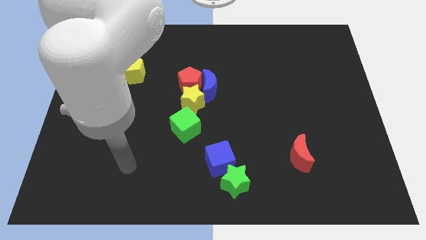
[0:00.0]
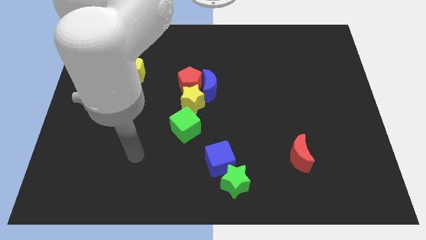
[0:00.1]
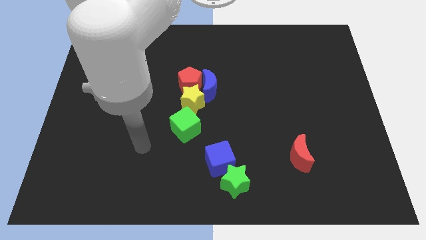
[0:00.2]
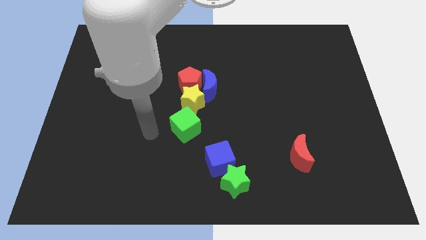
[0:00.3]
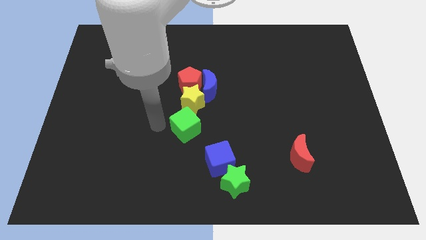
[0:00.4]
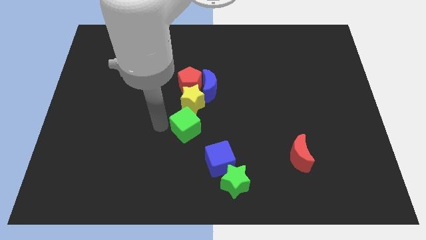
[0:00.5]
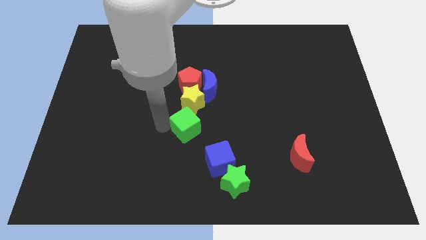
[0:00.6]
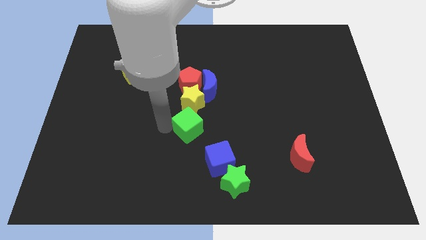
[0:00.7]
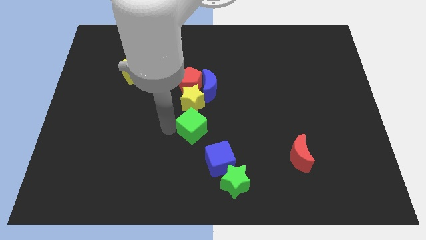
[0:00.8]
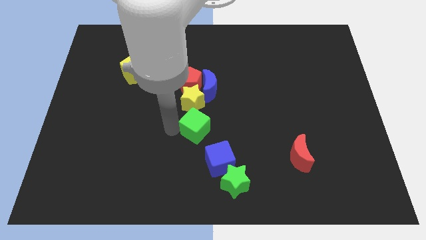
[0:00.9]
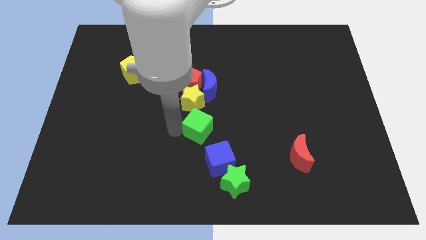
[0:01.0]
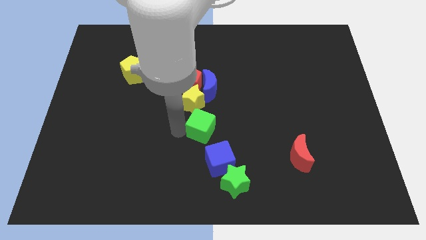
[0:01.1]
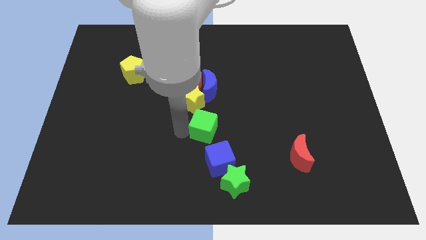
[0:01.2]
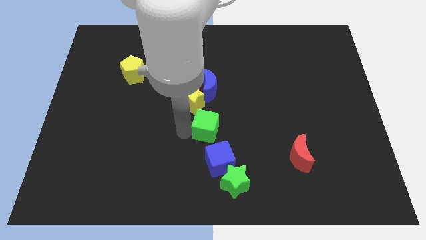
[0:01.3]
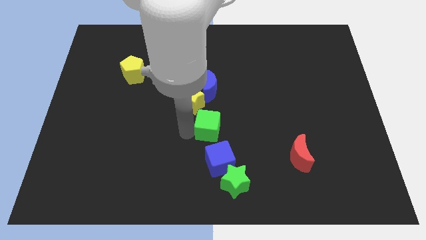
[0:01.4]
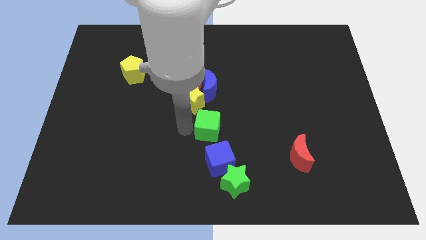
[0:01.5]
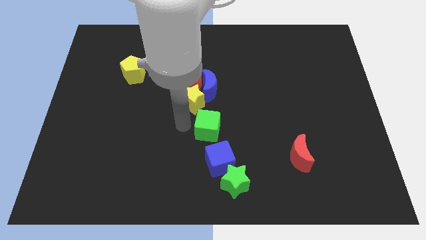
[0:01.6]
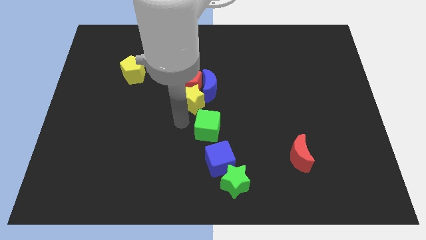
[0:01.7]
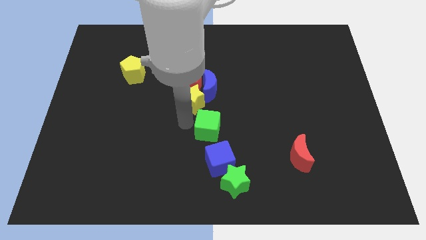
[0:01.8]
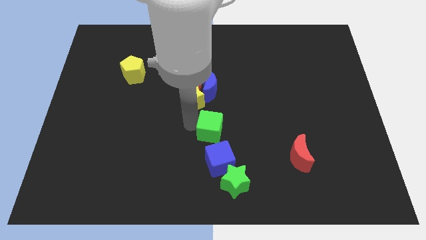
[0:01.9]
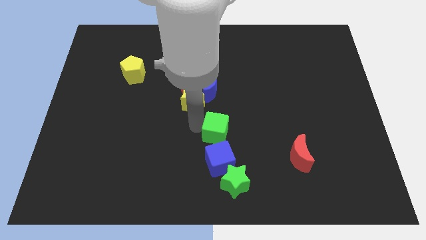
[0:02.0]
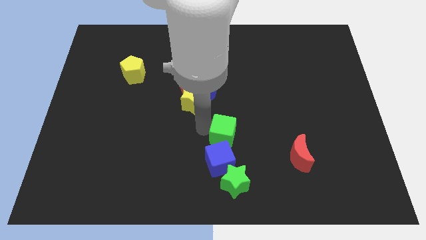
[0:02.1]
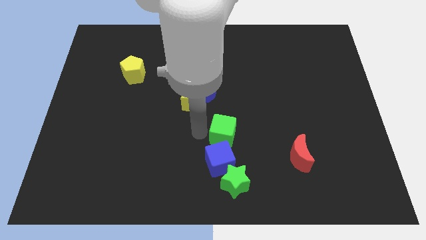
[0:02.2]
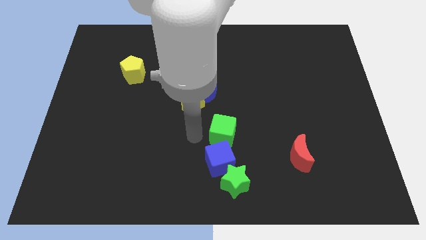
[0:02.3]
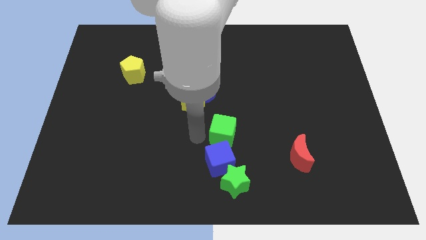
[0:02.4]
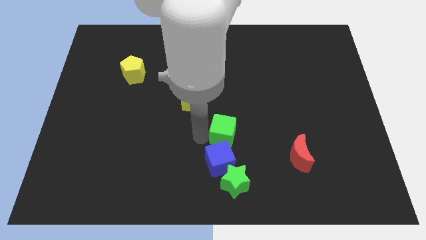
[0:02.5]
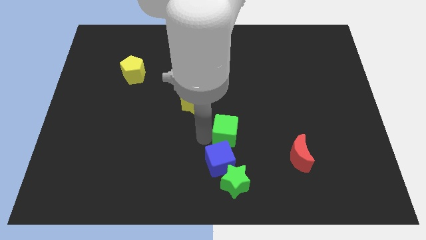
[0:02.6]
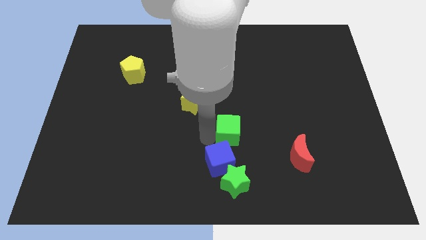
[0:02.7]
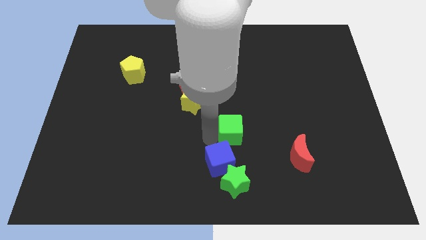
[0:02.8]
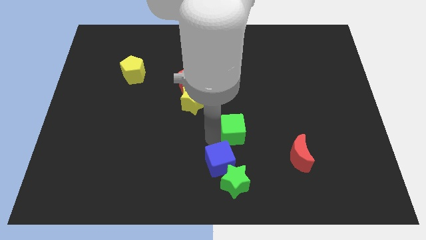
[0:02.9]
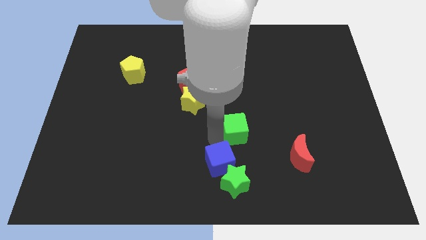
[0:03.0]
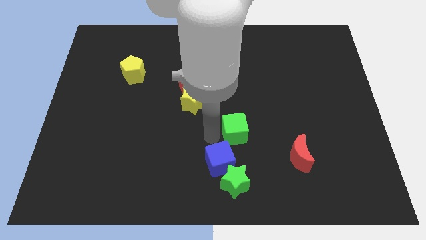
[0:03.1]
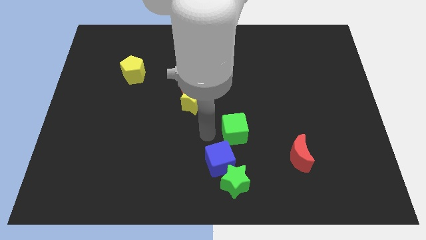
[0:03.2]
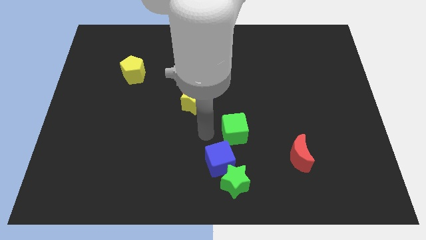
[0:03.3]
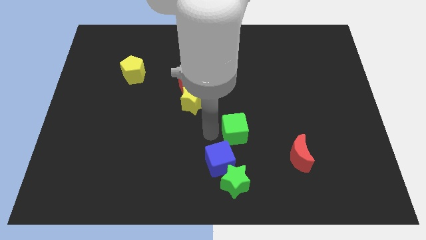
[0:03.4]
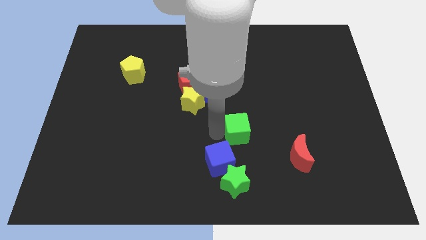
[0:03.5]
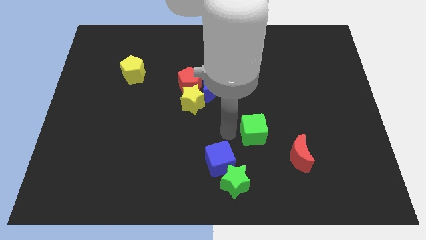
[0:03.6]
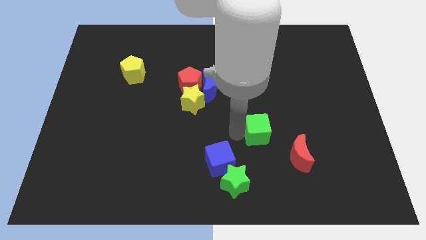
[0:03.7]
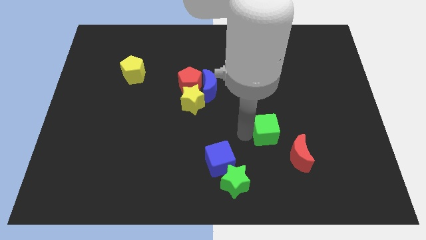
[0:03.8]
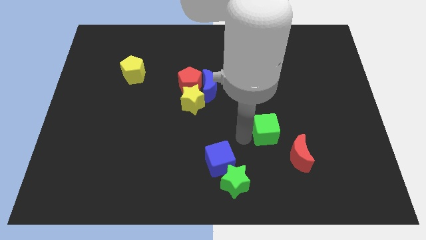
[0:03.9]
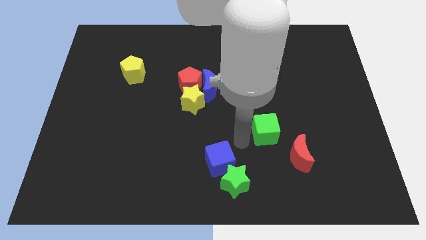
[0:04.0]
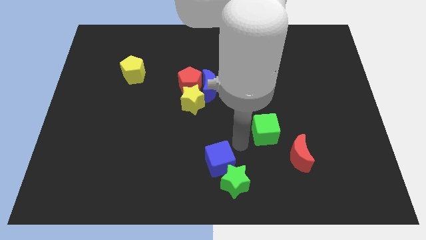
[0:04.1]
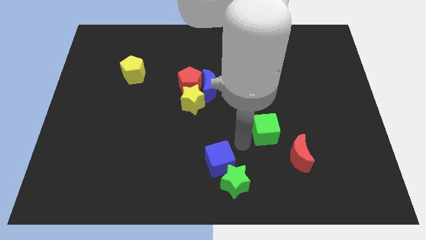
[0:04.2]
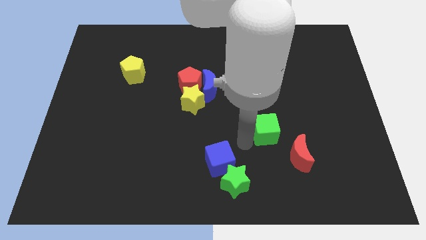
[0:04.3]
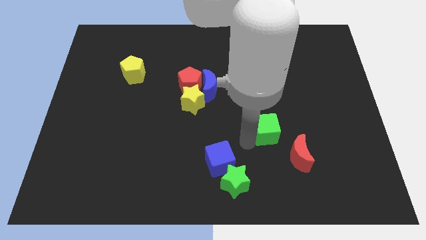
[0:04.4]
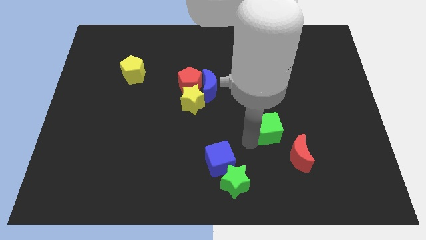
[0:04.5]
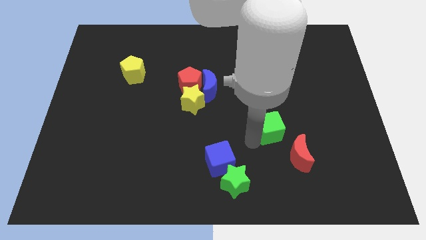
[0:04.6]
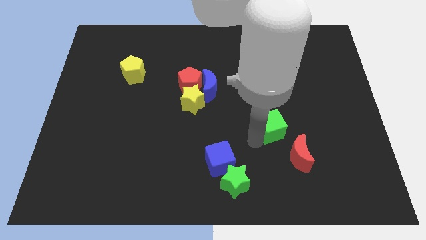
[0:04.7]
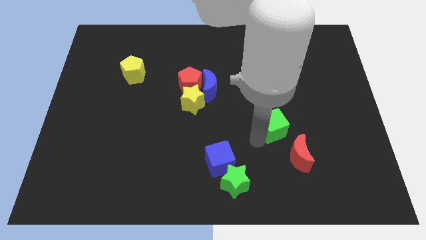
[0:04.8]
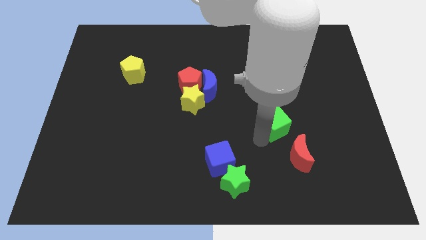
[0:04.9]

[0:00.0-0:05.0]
push the green cube to the right

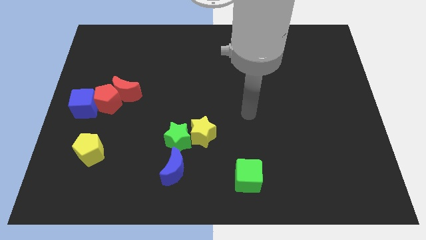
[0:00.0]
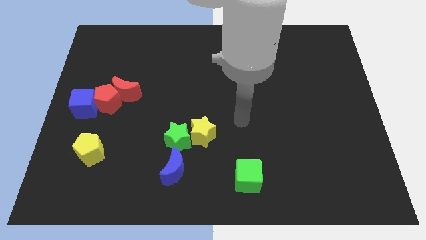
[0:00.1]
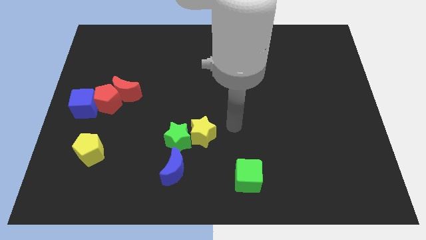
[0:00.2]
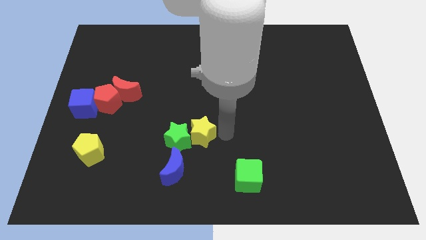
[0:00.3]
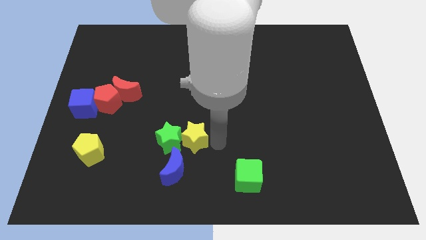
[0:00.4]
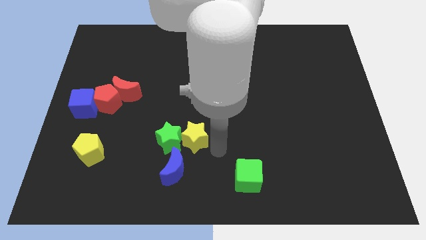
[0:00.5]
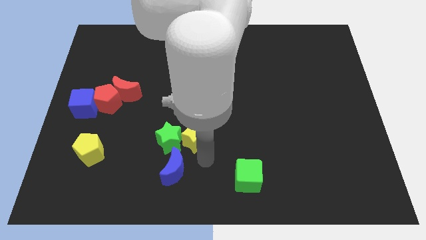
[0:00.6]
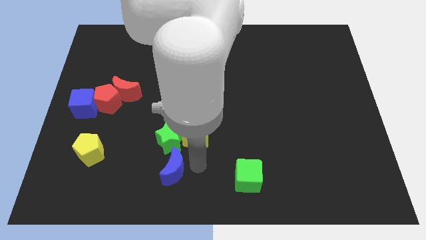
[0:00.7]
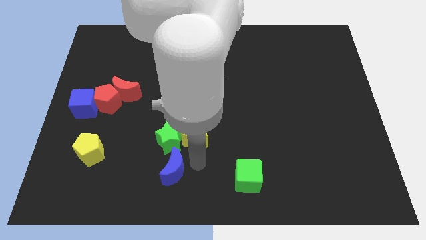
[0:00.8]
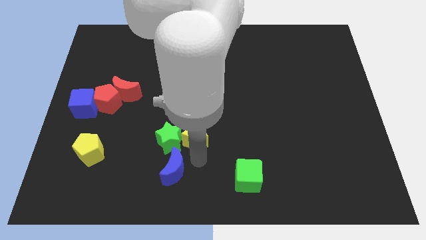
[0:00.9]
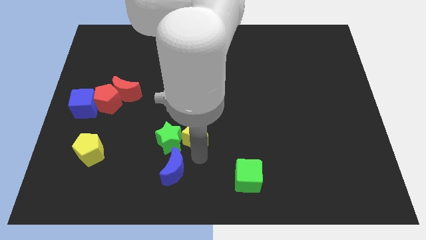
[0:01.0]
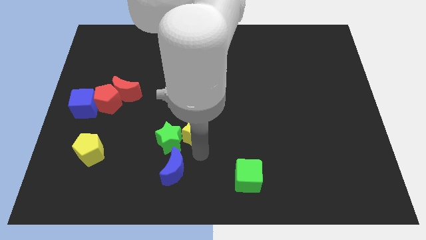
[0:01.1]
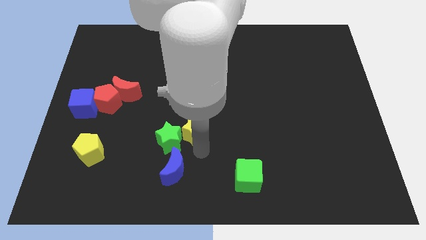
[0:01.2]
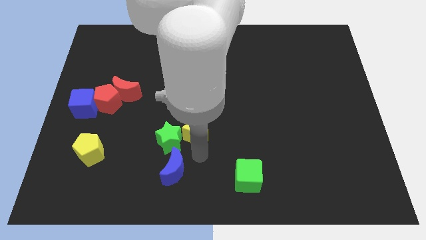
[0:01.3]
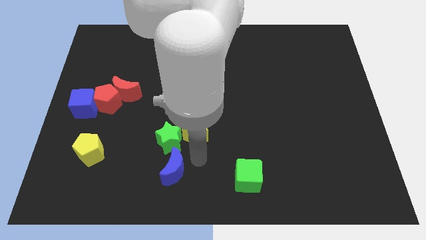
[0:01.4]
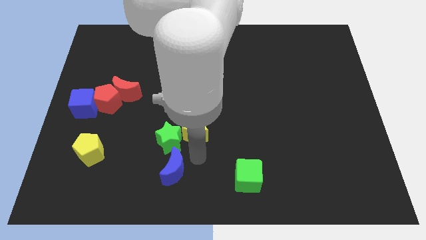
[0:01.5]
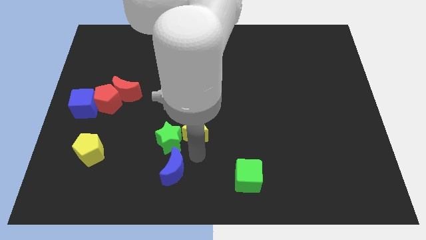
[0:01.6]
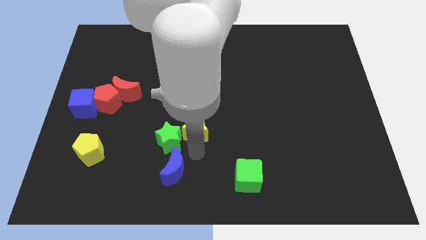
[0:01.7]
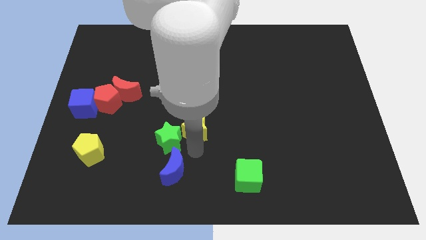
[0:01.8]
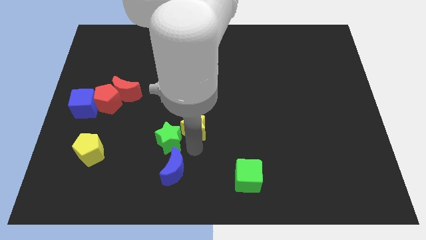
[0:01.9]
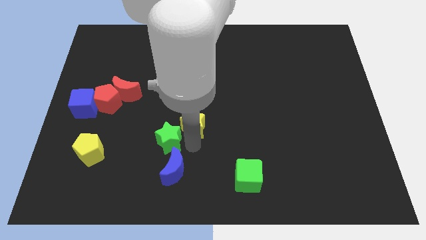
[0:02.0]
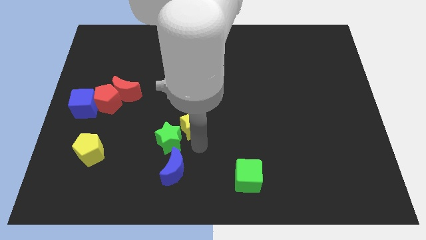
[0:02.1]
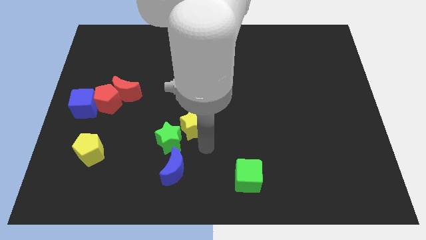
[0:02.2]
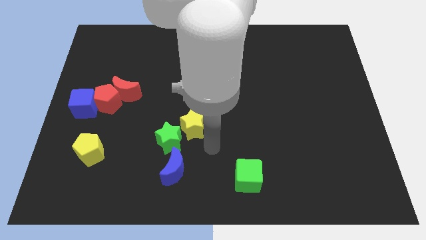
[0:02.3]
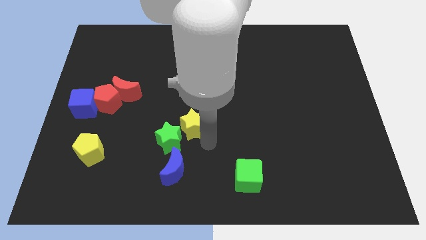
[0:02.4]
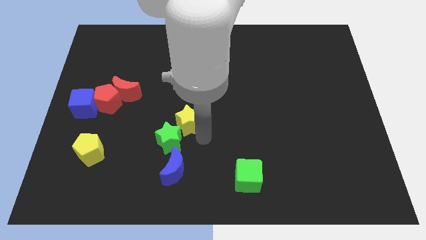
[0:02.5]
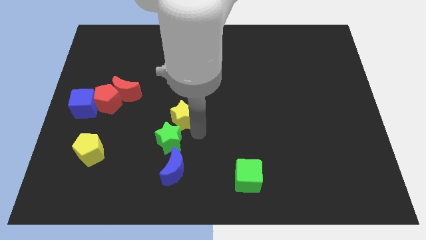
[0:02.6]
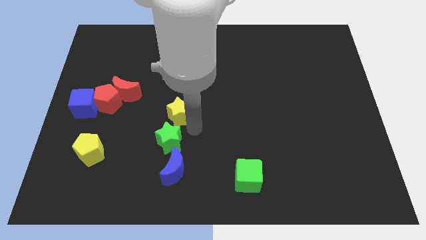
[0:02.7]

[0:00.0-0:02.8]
slightly slide the yellow star upwards and then left

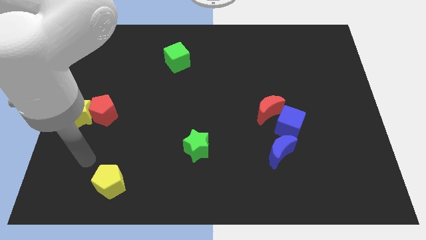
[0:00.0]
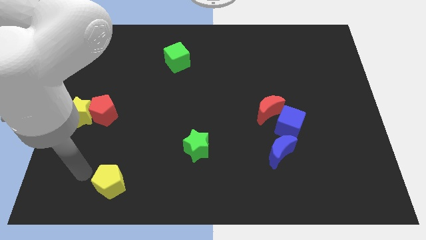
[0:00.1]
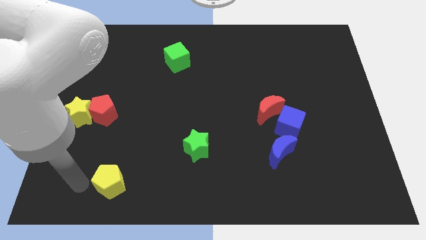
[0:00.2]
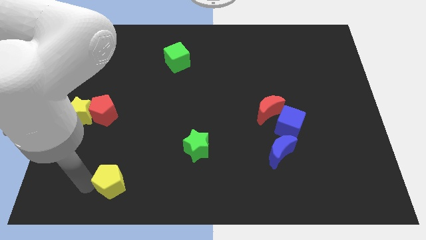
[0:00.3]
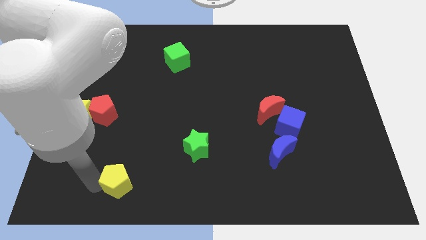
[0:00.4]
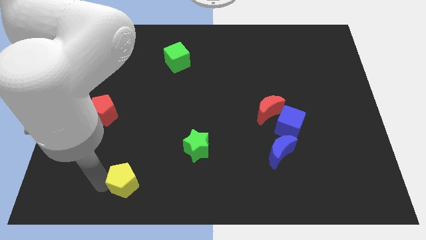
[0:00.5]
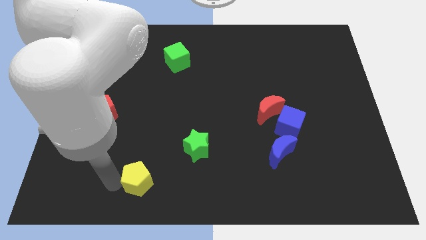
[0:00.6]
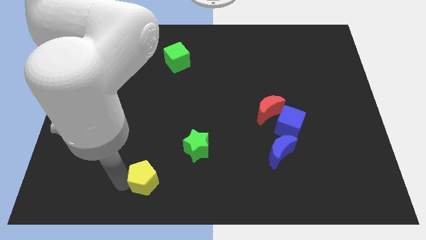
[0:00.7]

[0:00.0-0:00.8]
slightly slide the yellow pentagon right
